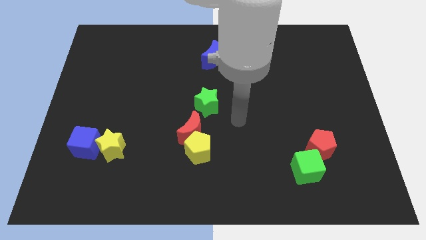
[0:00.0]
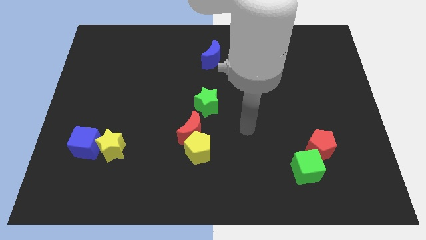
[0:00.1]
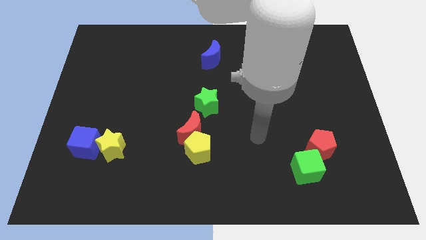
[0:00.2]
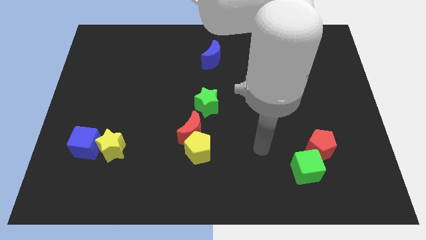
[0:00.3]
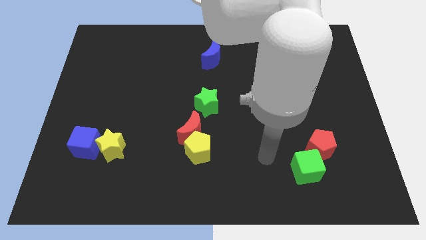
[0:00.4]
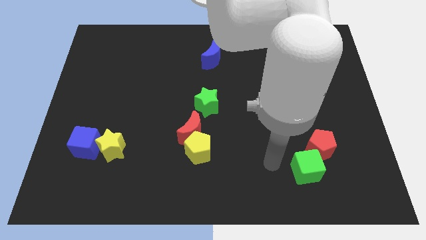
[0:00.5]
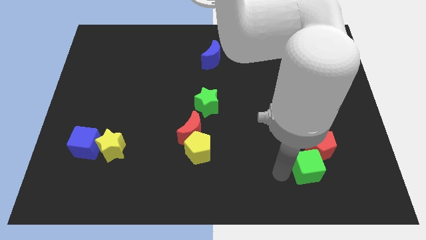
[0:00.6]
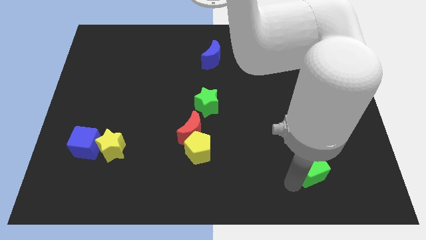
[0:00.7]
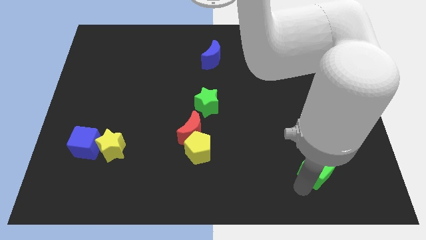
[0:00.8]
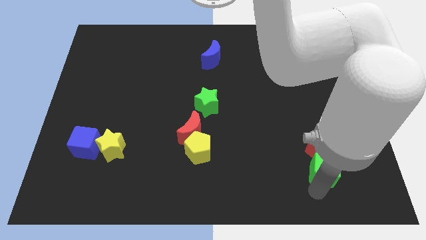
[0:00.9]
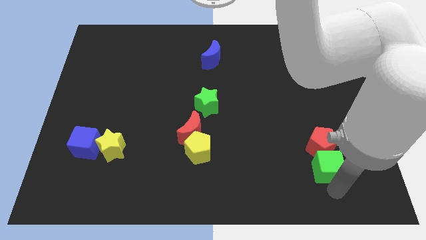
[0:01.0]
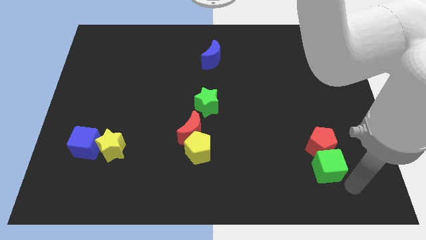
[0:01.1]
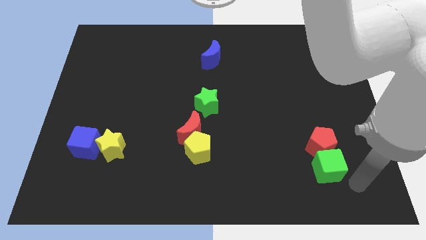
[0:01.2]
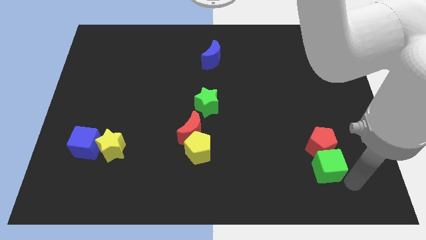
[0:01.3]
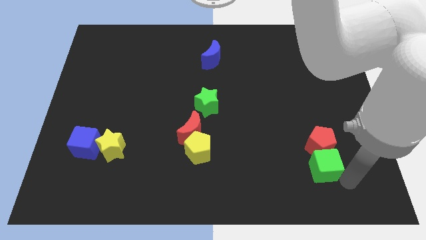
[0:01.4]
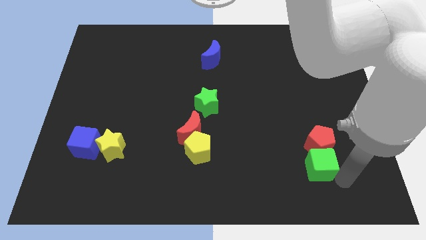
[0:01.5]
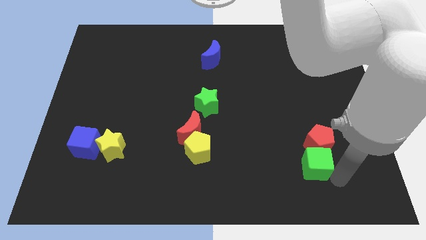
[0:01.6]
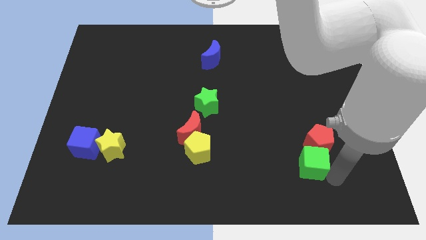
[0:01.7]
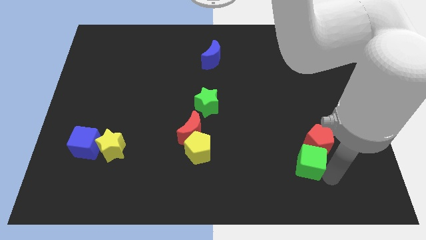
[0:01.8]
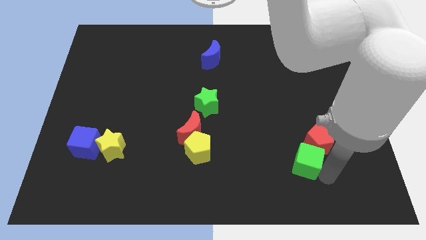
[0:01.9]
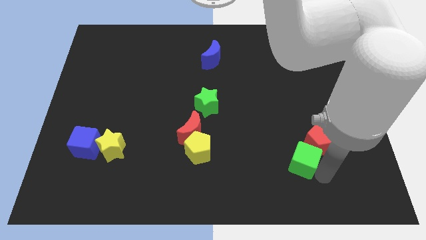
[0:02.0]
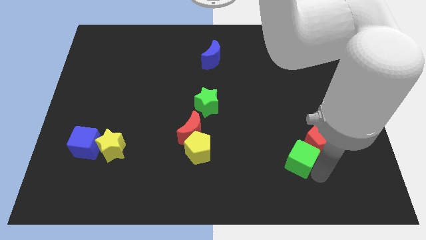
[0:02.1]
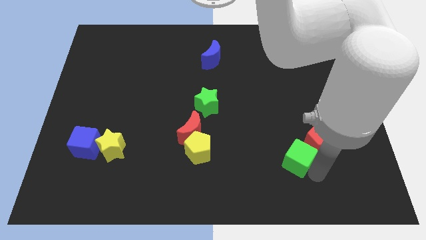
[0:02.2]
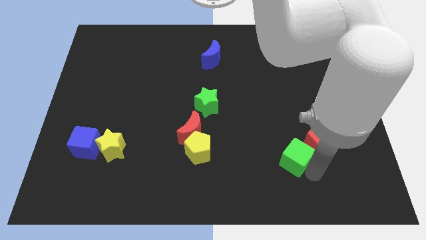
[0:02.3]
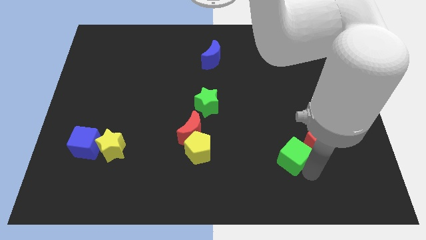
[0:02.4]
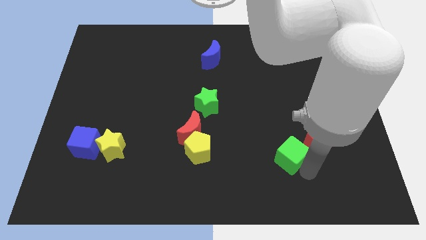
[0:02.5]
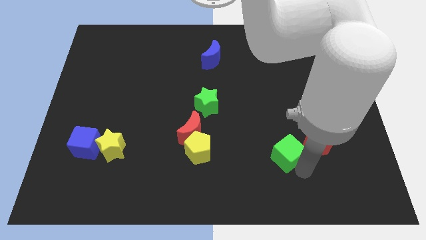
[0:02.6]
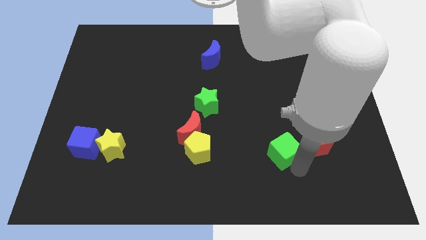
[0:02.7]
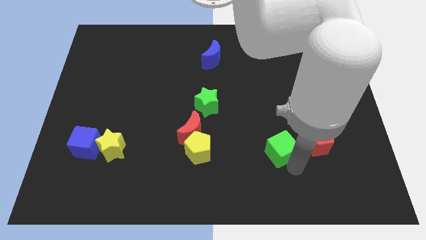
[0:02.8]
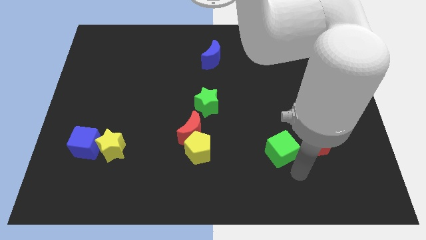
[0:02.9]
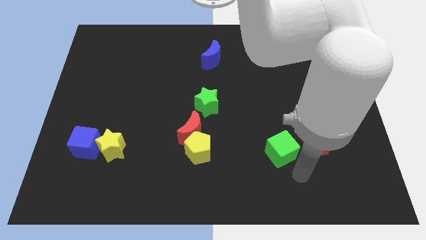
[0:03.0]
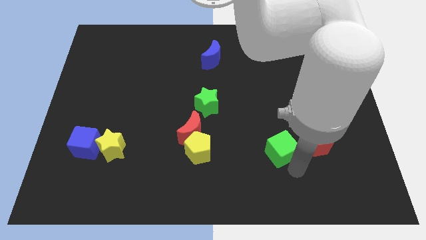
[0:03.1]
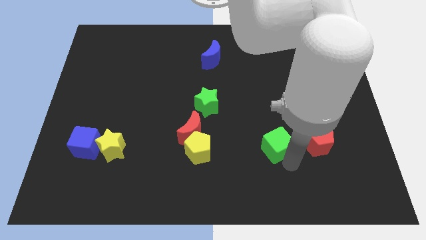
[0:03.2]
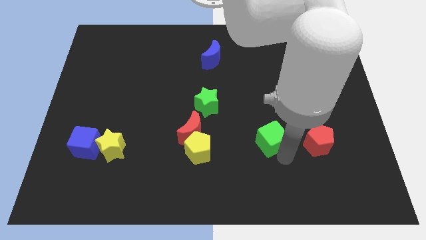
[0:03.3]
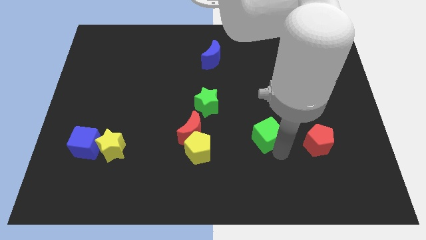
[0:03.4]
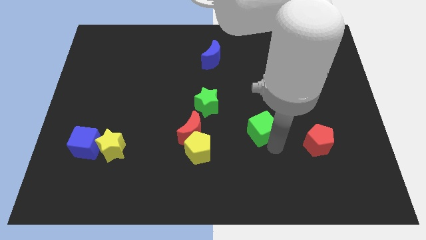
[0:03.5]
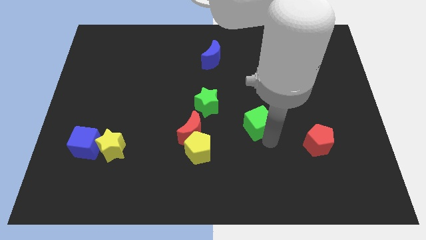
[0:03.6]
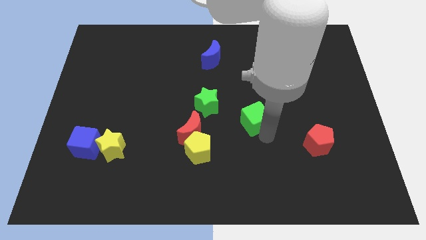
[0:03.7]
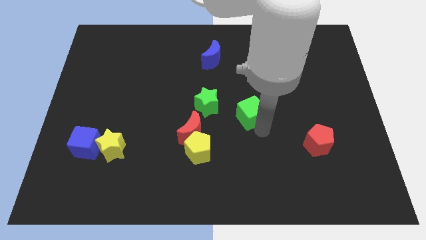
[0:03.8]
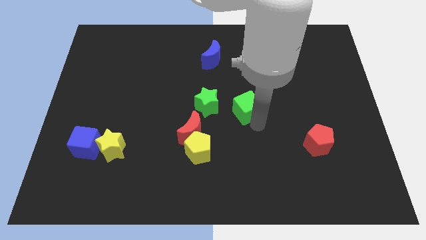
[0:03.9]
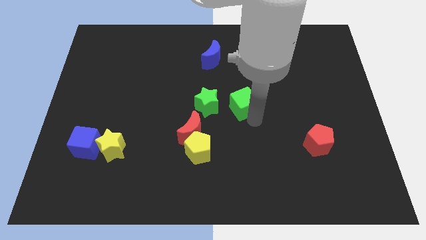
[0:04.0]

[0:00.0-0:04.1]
push the green cube diagonally upwards and left

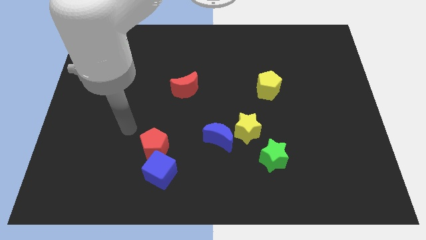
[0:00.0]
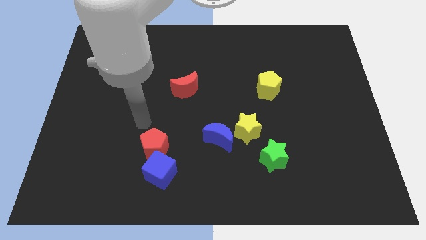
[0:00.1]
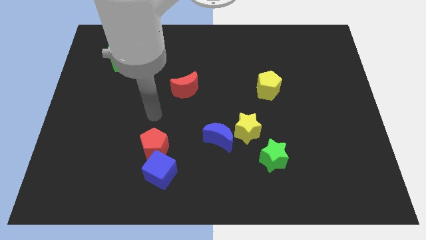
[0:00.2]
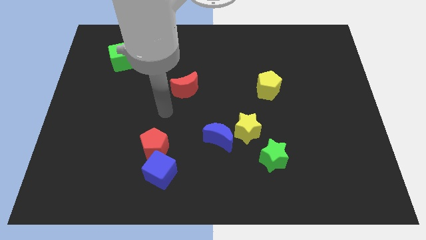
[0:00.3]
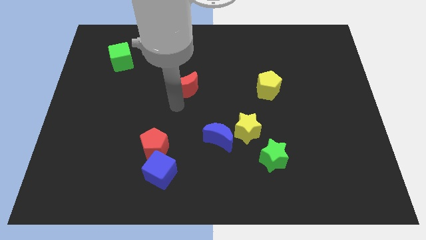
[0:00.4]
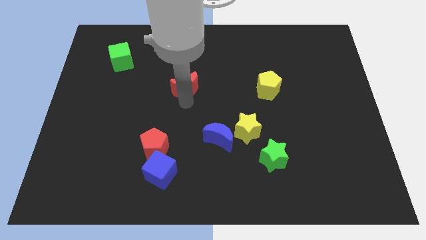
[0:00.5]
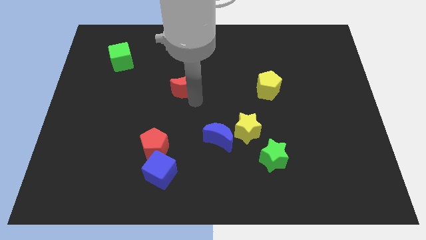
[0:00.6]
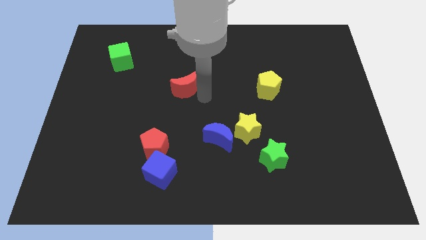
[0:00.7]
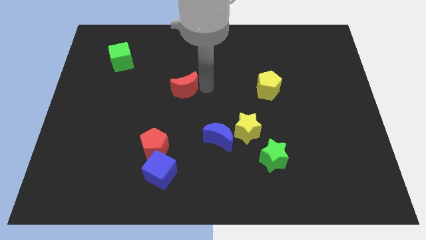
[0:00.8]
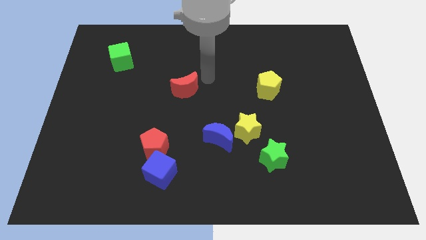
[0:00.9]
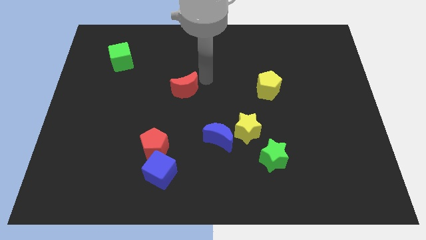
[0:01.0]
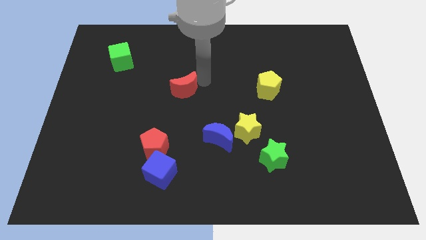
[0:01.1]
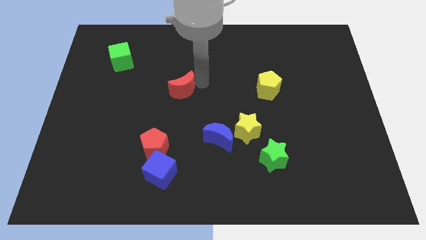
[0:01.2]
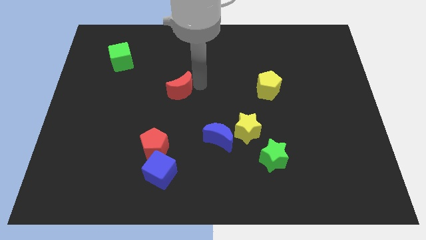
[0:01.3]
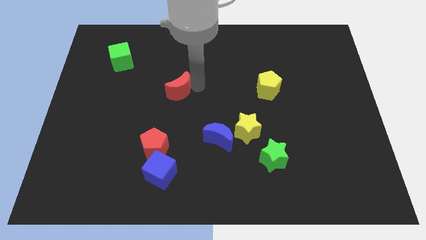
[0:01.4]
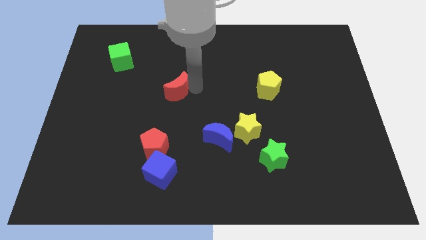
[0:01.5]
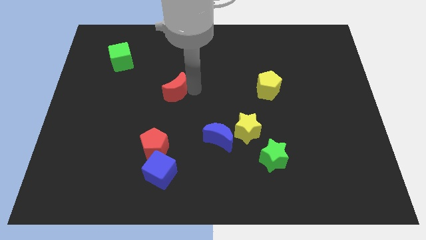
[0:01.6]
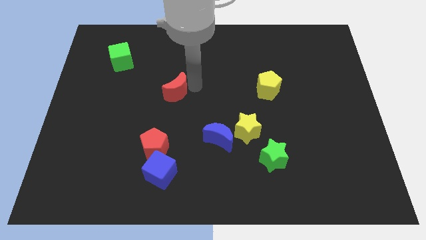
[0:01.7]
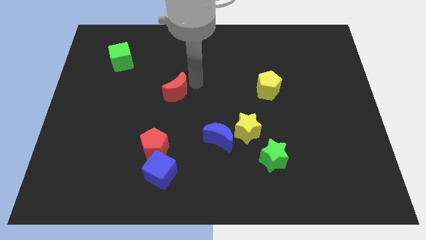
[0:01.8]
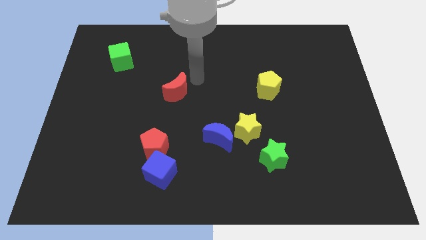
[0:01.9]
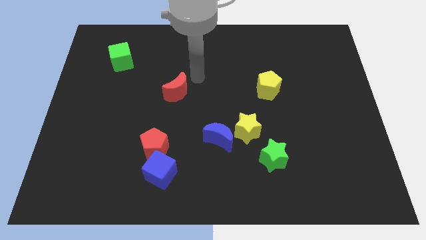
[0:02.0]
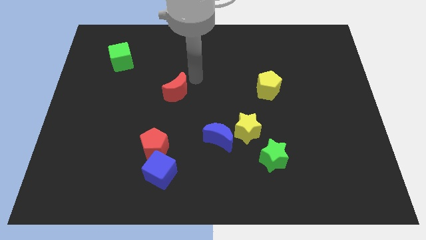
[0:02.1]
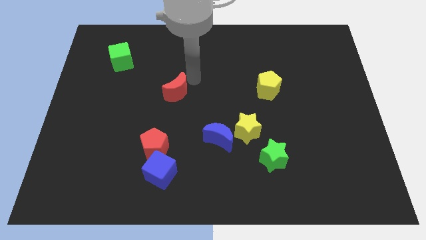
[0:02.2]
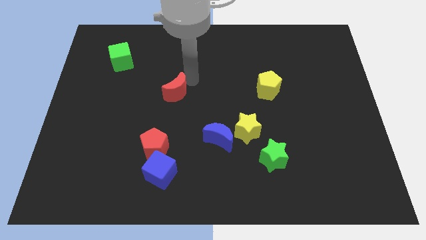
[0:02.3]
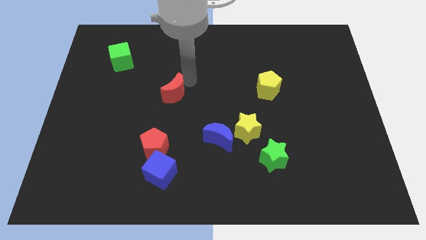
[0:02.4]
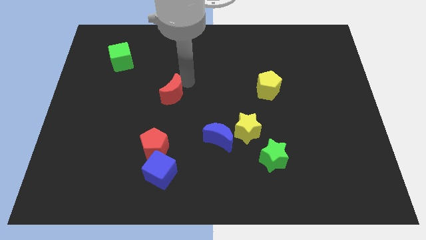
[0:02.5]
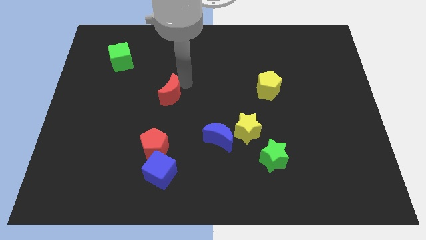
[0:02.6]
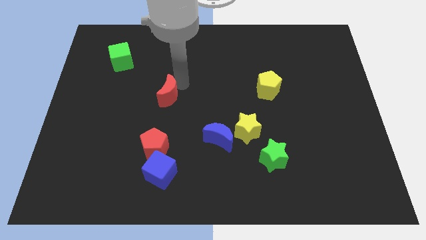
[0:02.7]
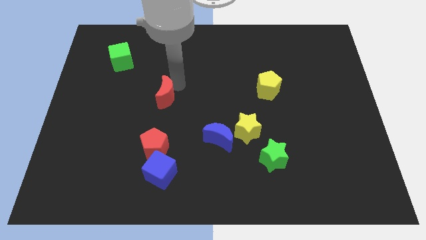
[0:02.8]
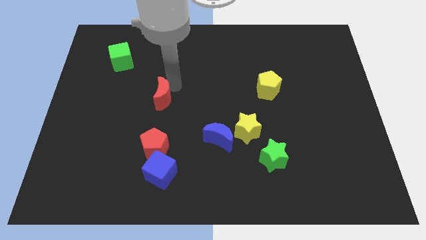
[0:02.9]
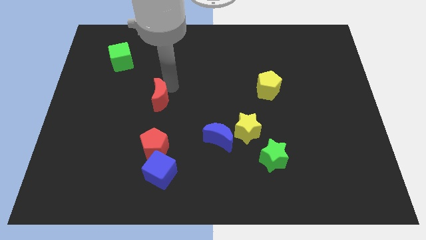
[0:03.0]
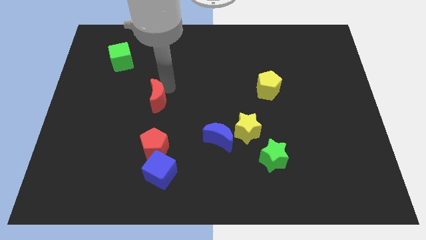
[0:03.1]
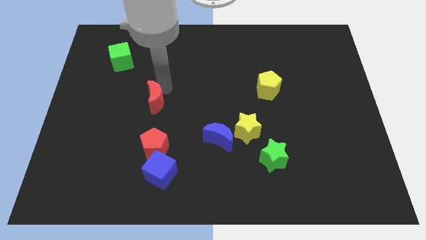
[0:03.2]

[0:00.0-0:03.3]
slide the red moon diagonally down and left somewhat

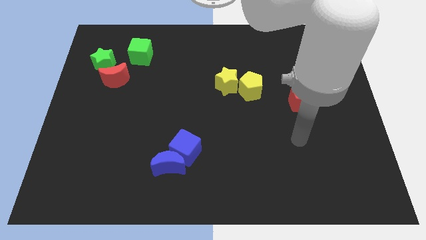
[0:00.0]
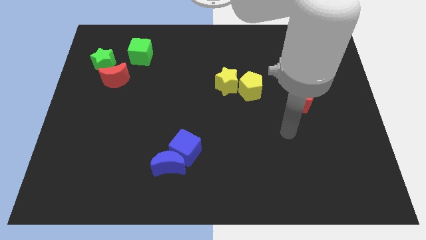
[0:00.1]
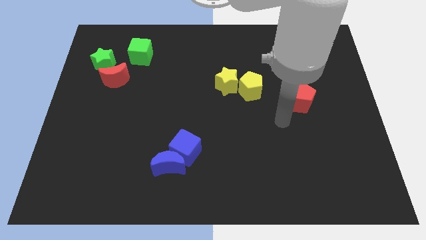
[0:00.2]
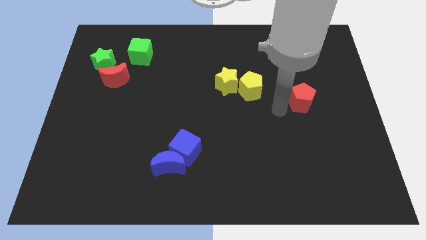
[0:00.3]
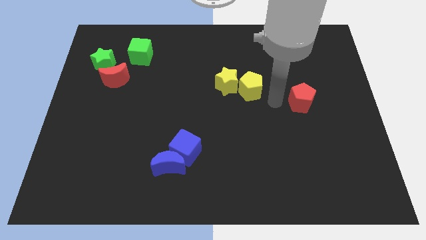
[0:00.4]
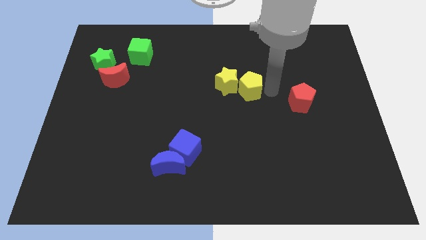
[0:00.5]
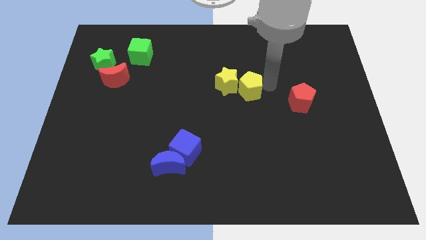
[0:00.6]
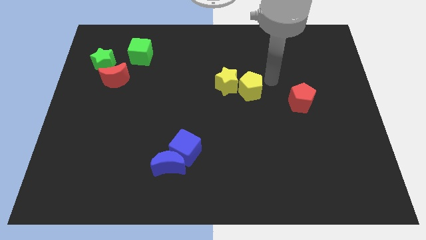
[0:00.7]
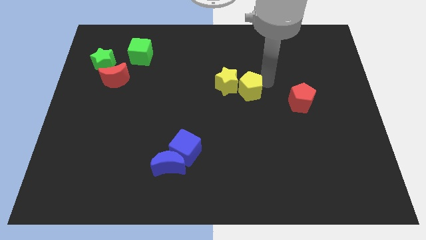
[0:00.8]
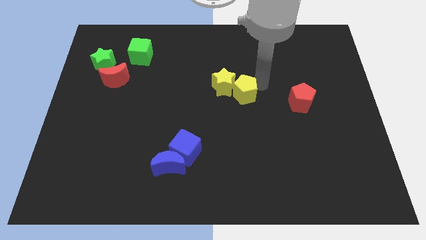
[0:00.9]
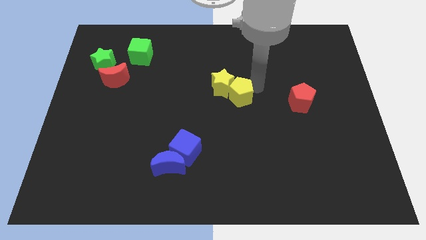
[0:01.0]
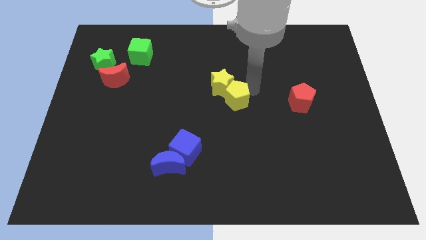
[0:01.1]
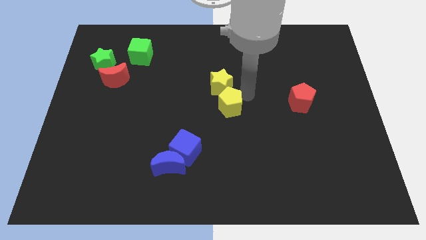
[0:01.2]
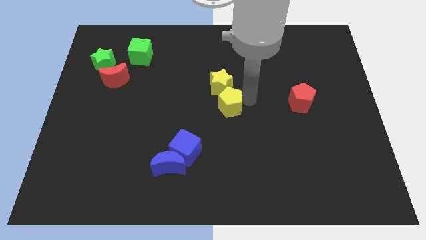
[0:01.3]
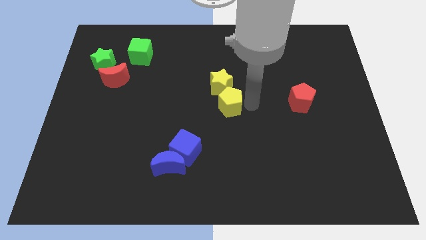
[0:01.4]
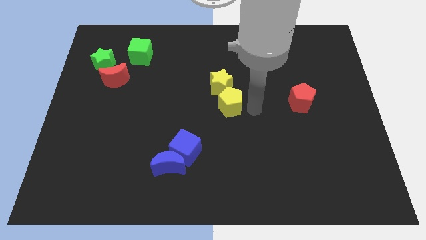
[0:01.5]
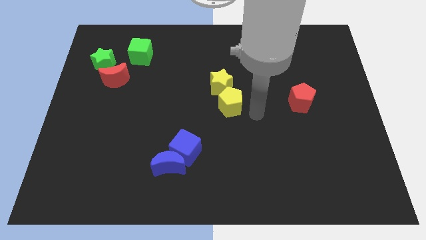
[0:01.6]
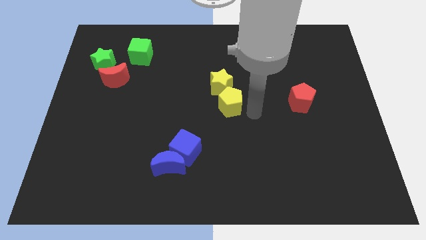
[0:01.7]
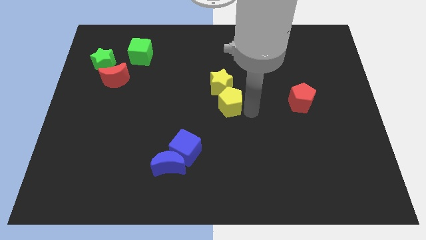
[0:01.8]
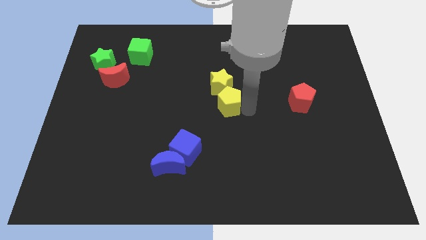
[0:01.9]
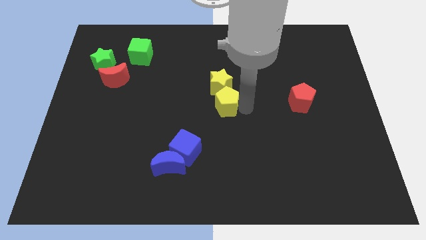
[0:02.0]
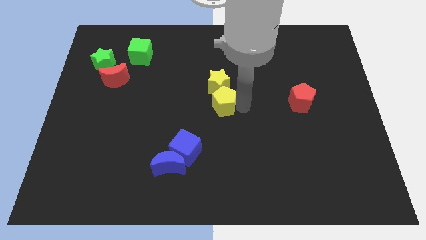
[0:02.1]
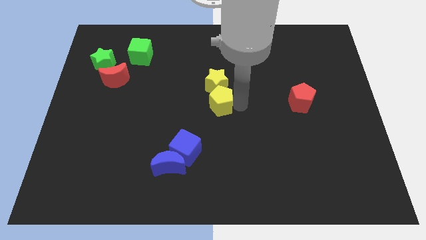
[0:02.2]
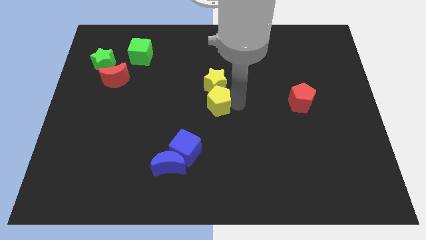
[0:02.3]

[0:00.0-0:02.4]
slightly move the yellow pentagon left
